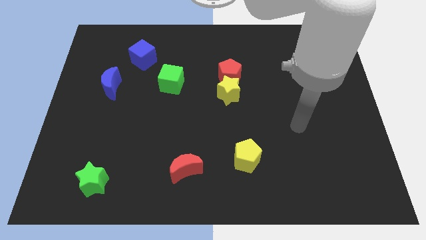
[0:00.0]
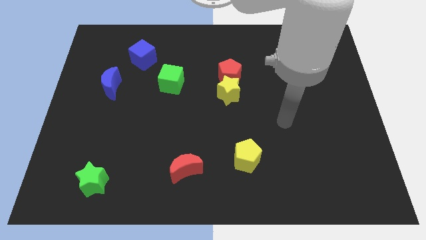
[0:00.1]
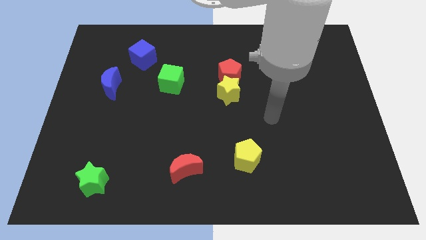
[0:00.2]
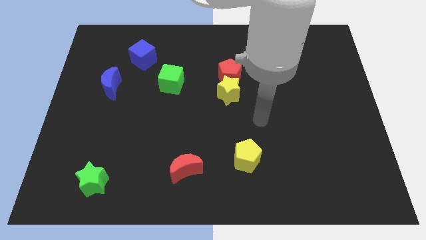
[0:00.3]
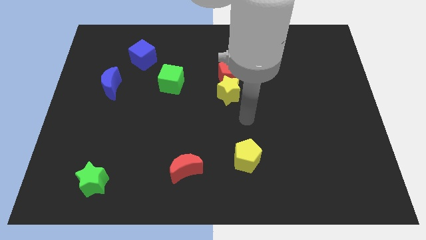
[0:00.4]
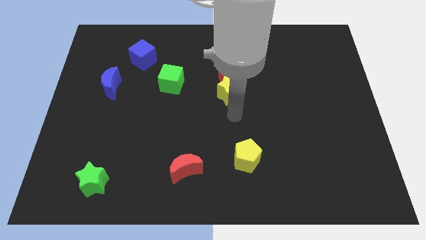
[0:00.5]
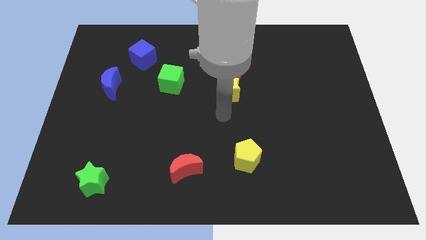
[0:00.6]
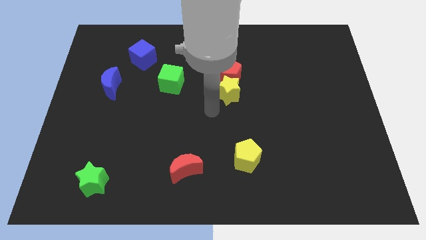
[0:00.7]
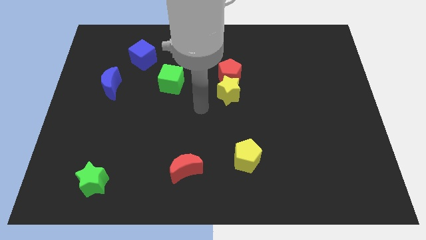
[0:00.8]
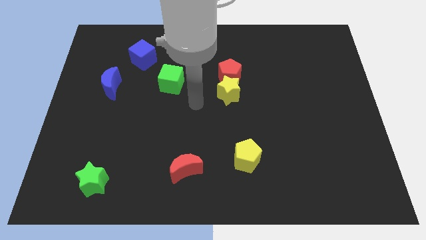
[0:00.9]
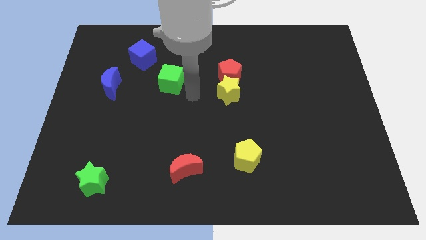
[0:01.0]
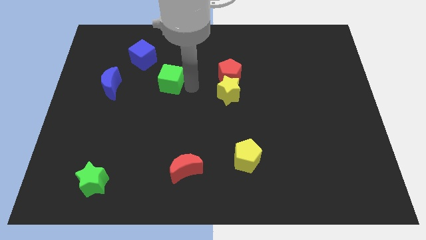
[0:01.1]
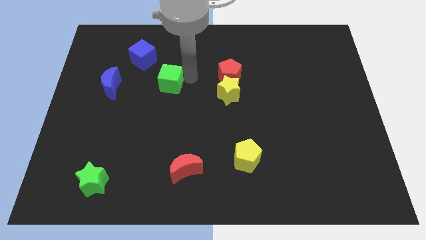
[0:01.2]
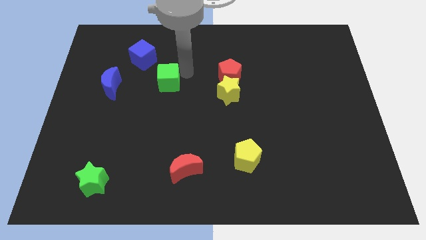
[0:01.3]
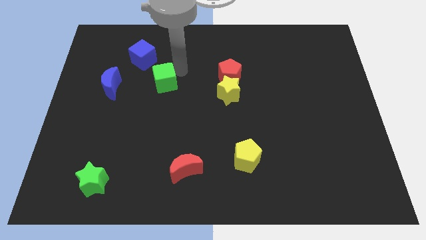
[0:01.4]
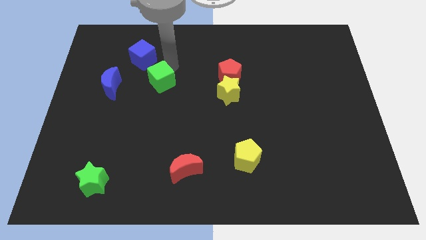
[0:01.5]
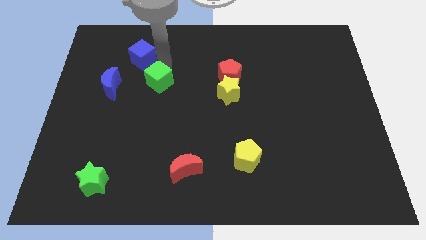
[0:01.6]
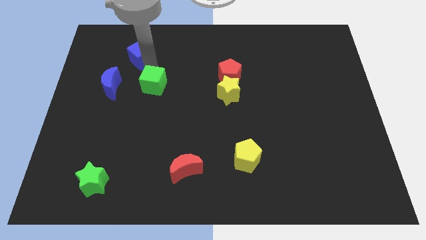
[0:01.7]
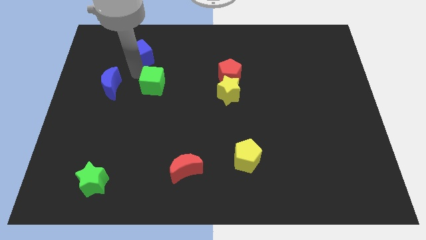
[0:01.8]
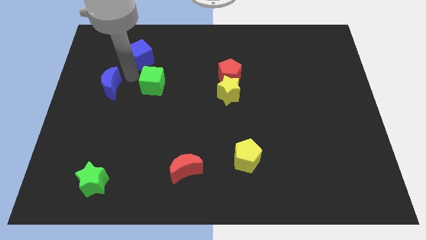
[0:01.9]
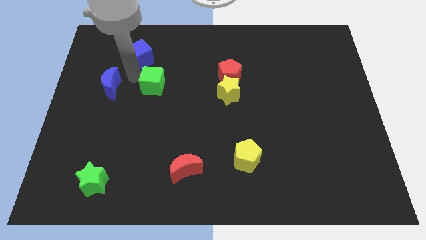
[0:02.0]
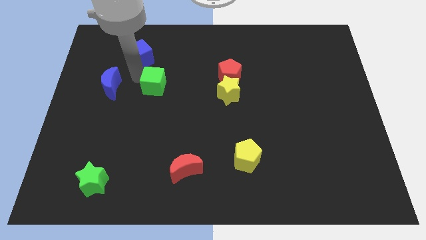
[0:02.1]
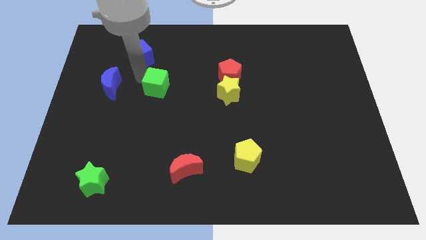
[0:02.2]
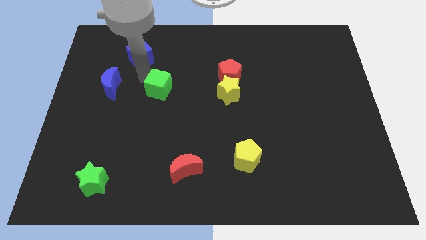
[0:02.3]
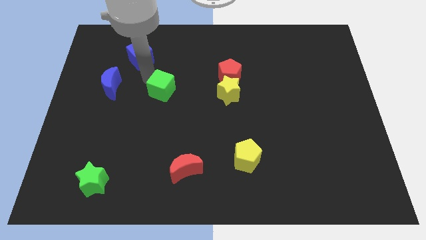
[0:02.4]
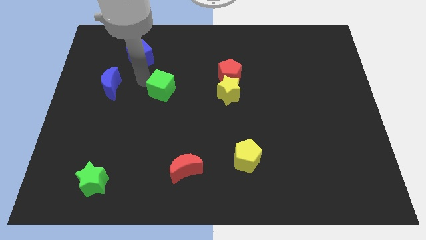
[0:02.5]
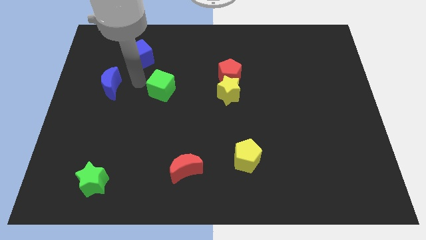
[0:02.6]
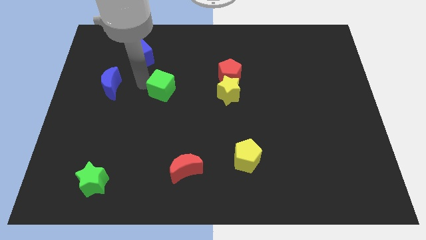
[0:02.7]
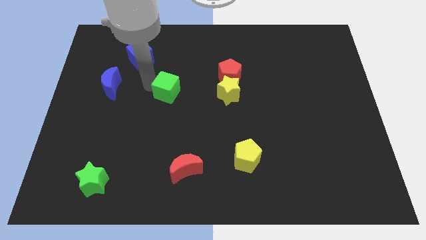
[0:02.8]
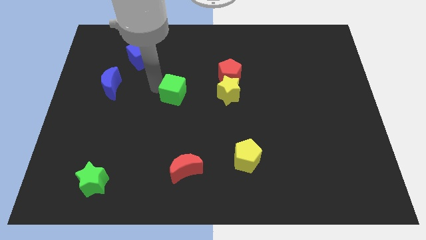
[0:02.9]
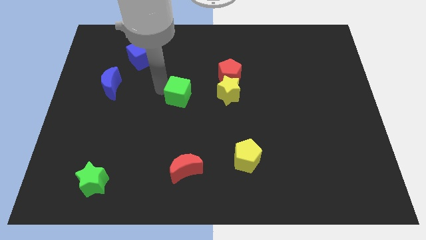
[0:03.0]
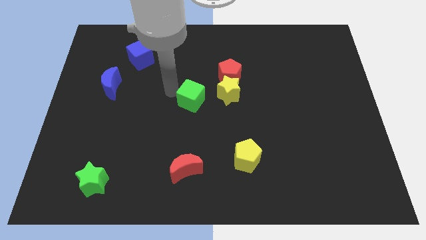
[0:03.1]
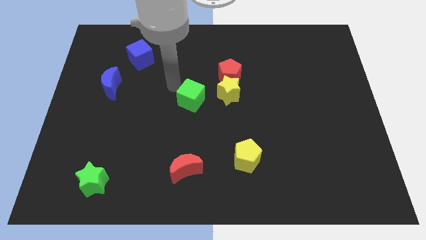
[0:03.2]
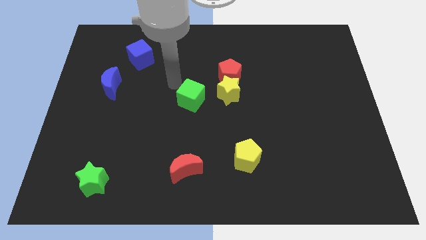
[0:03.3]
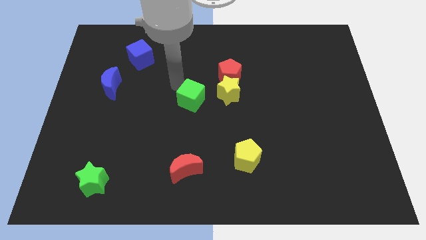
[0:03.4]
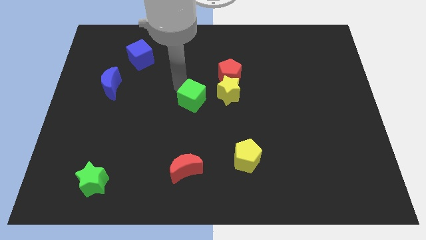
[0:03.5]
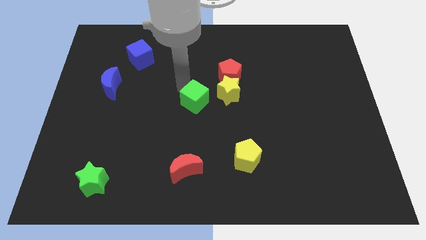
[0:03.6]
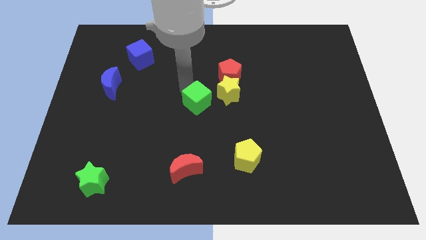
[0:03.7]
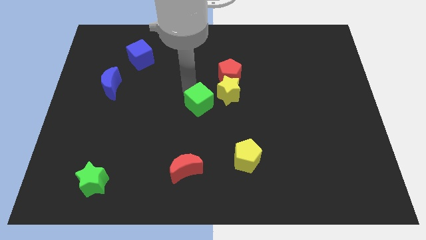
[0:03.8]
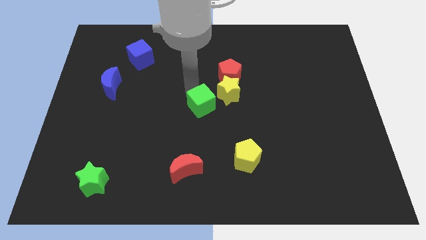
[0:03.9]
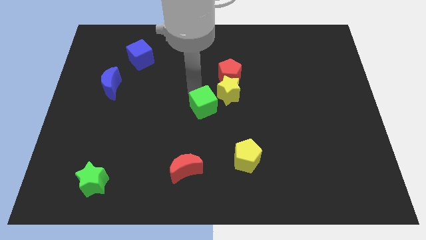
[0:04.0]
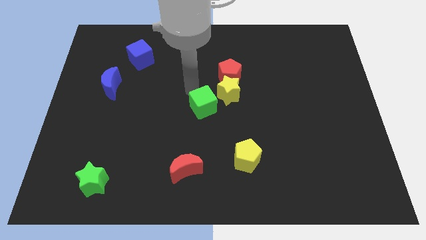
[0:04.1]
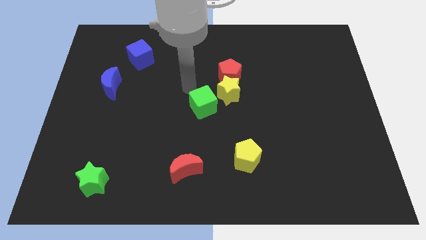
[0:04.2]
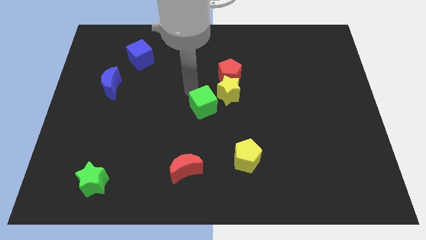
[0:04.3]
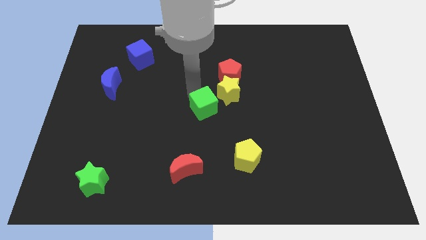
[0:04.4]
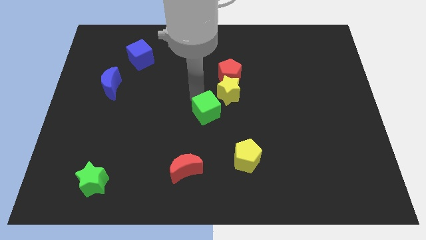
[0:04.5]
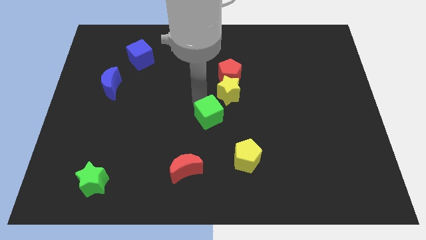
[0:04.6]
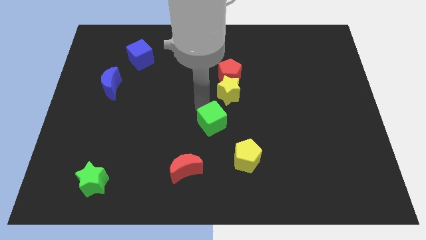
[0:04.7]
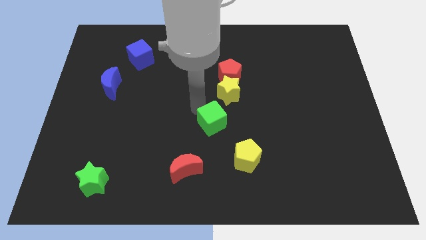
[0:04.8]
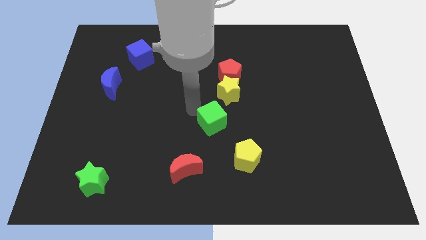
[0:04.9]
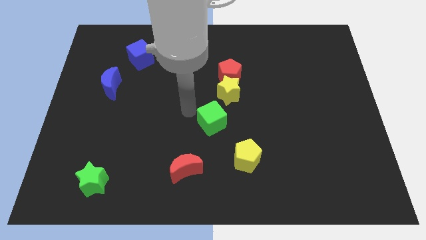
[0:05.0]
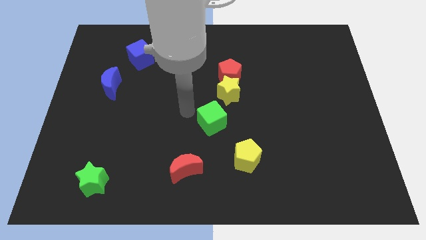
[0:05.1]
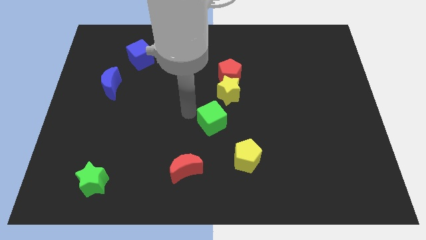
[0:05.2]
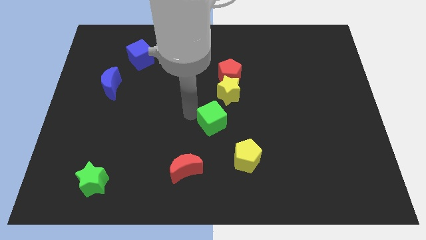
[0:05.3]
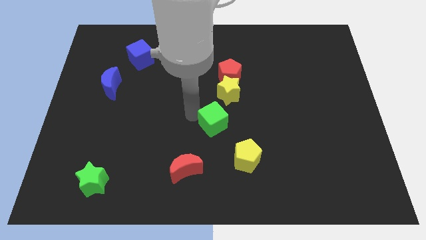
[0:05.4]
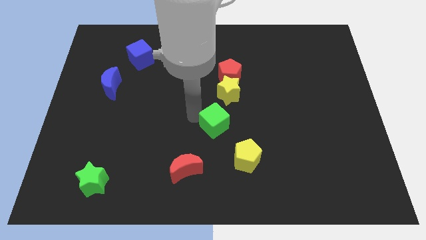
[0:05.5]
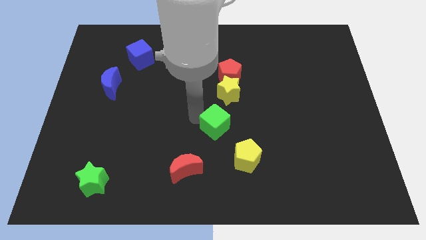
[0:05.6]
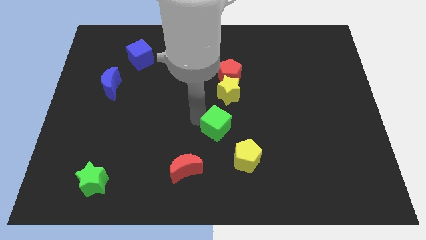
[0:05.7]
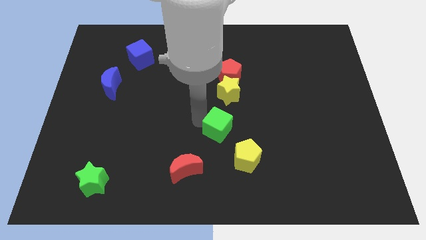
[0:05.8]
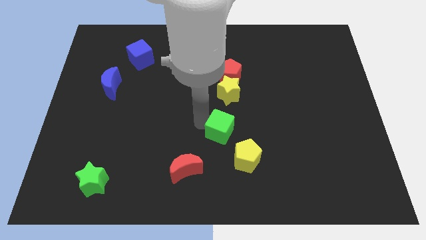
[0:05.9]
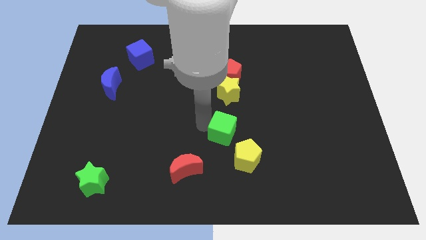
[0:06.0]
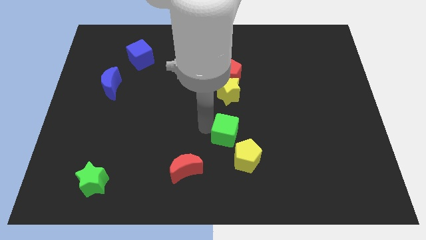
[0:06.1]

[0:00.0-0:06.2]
slide the green cube downwards and then to the right

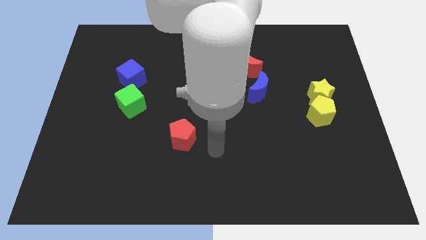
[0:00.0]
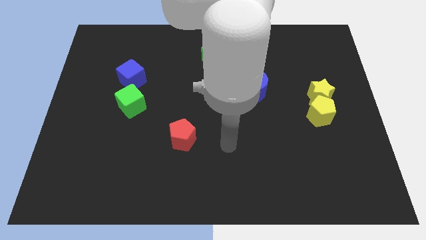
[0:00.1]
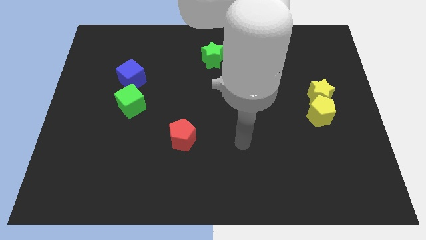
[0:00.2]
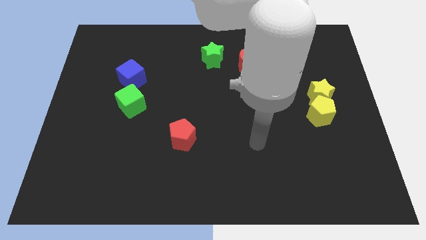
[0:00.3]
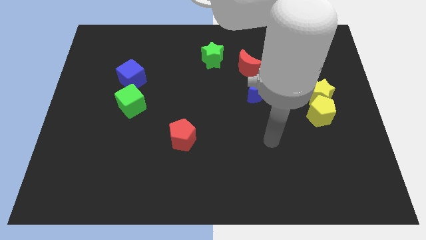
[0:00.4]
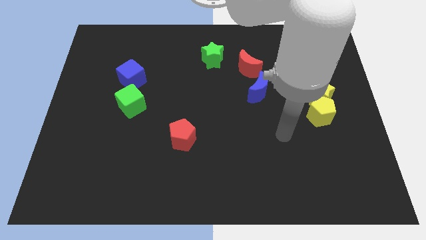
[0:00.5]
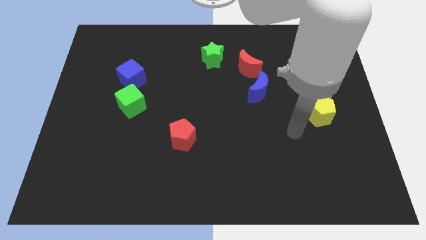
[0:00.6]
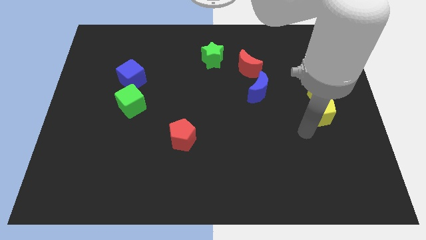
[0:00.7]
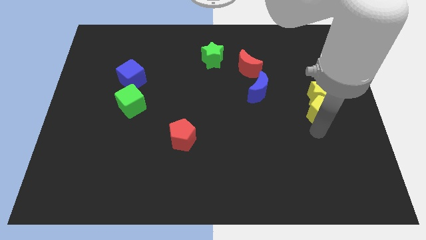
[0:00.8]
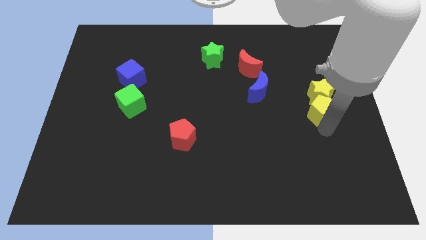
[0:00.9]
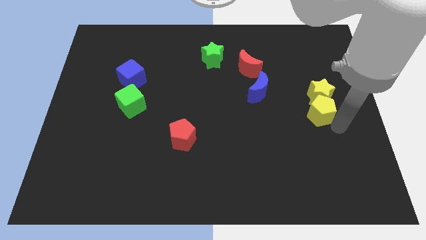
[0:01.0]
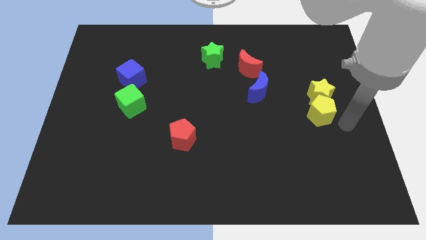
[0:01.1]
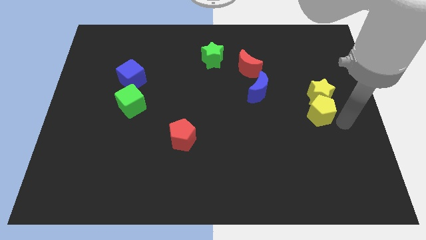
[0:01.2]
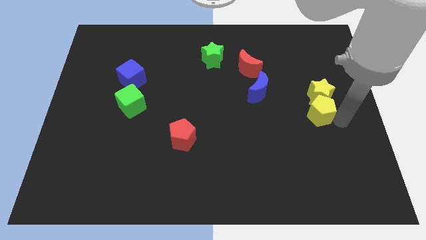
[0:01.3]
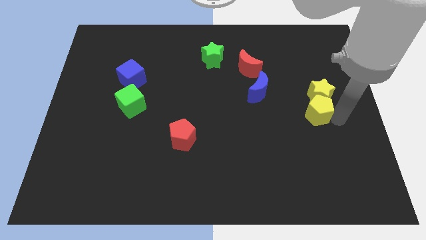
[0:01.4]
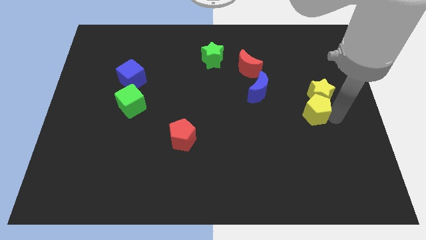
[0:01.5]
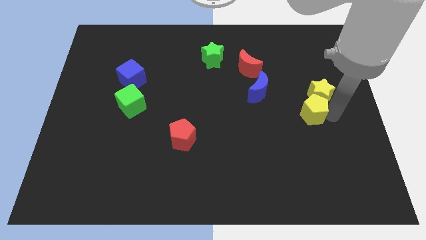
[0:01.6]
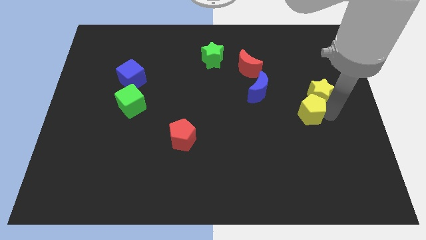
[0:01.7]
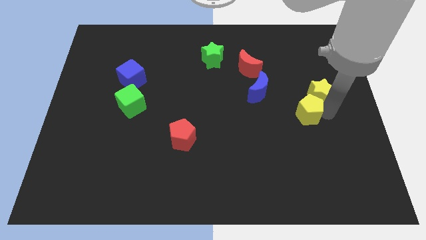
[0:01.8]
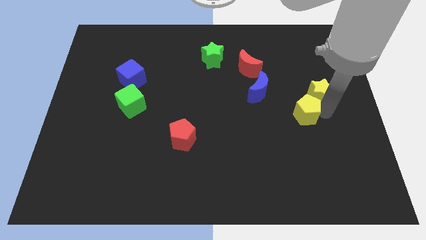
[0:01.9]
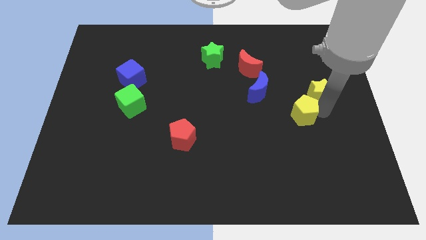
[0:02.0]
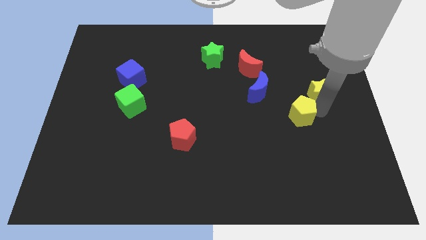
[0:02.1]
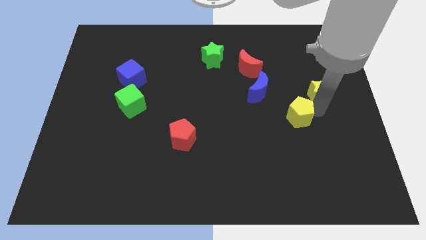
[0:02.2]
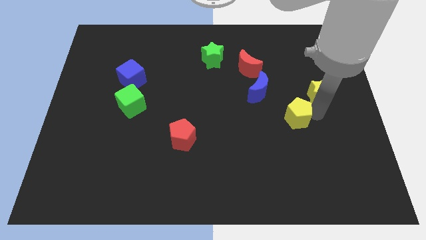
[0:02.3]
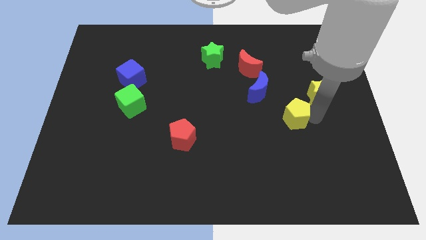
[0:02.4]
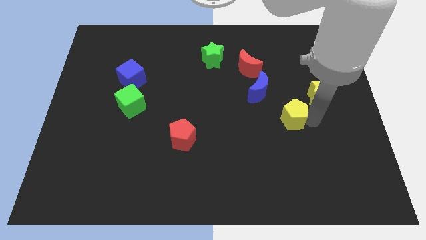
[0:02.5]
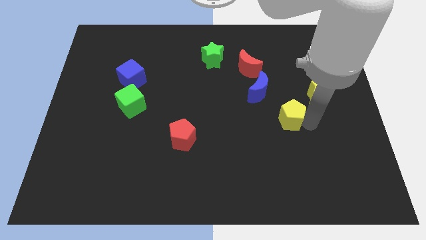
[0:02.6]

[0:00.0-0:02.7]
slightly move the yellow pentagon to the left
